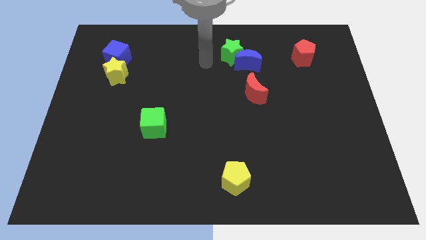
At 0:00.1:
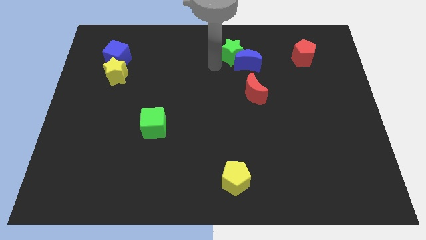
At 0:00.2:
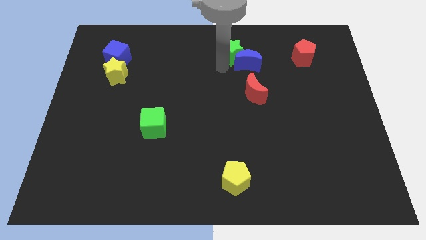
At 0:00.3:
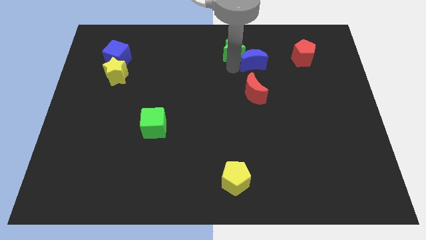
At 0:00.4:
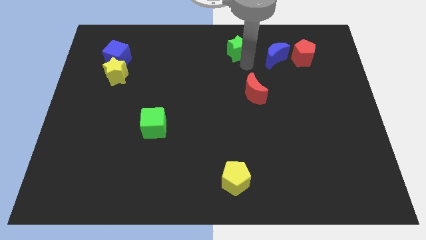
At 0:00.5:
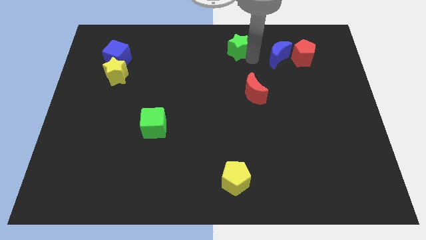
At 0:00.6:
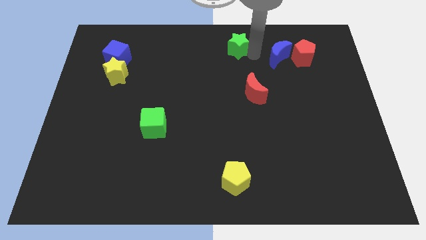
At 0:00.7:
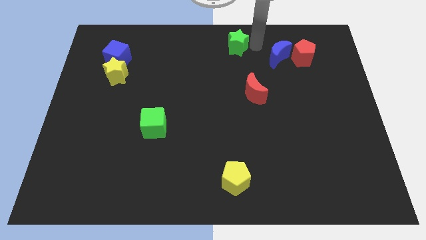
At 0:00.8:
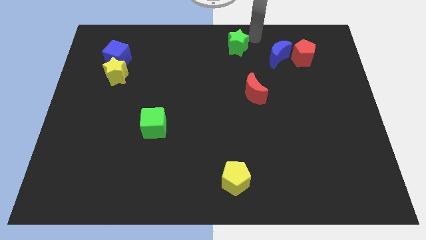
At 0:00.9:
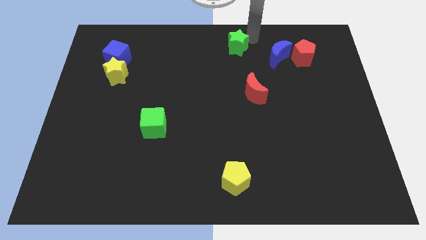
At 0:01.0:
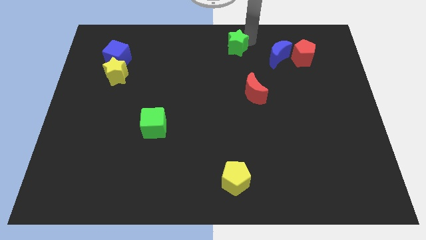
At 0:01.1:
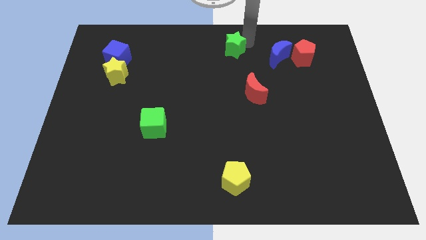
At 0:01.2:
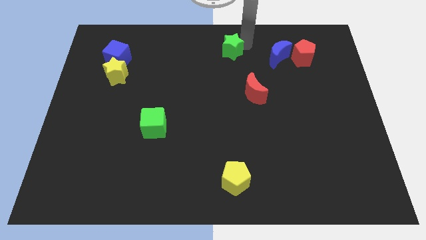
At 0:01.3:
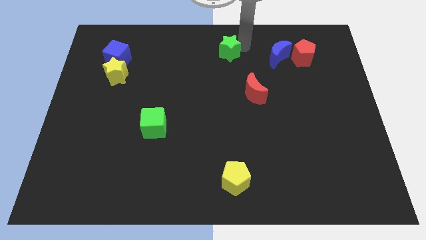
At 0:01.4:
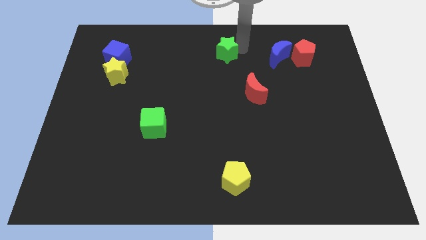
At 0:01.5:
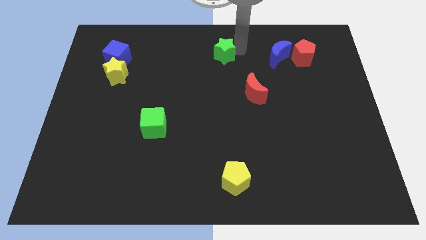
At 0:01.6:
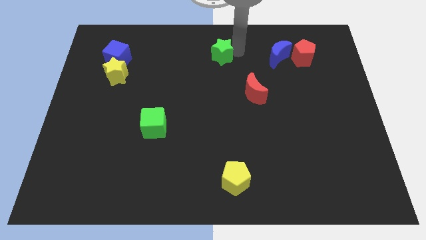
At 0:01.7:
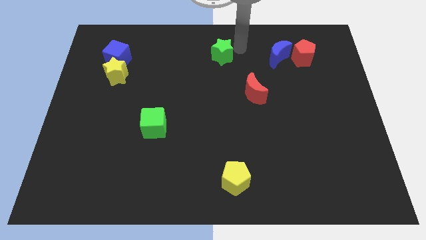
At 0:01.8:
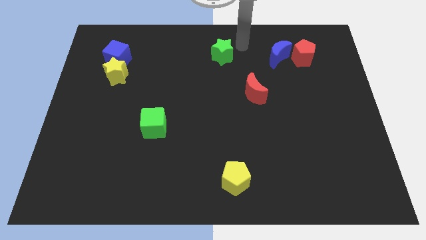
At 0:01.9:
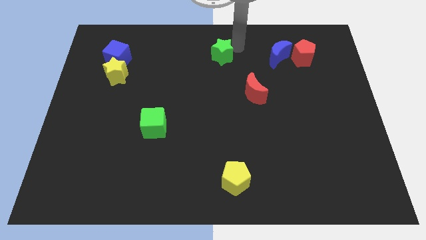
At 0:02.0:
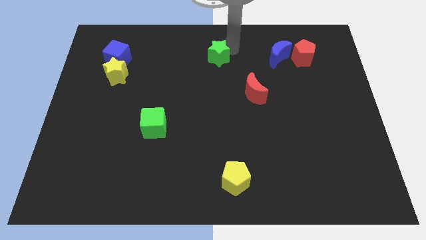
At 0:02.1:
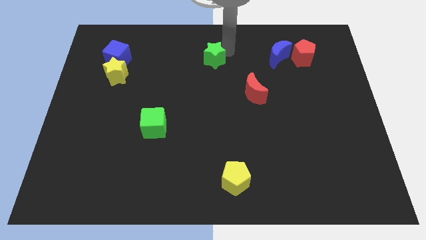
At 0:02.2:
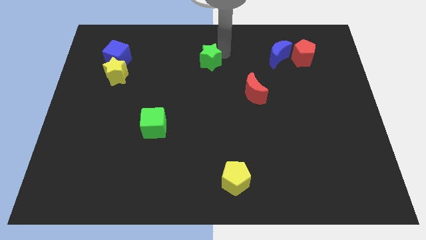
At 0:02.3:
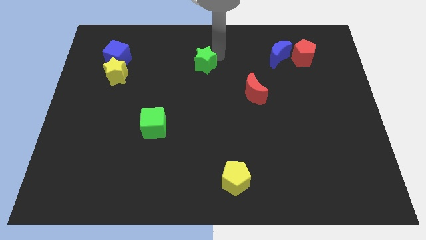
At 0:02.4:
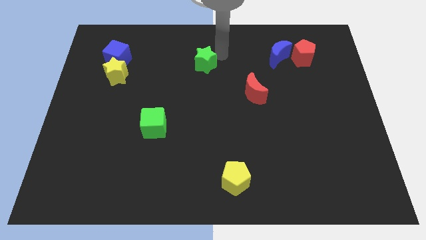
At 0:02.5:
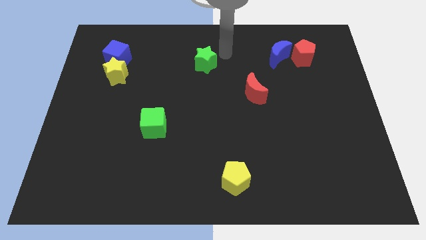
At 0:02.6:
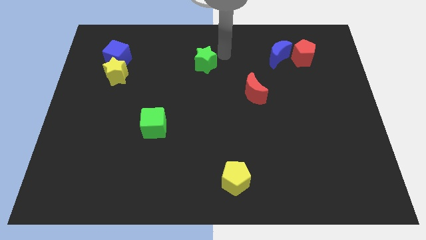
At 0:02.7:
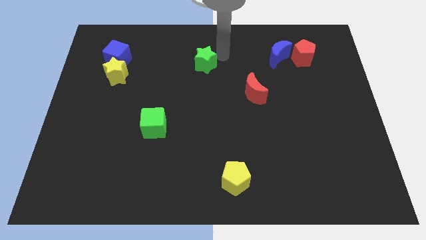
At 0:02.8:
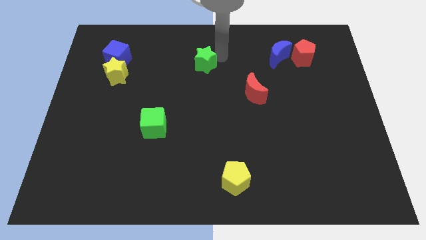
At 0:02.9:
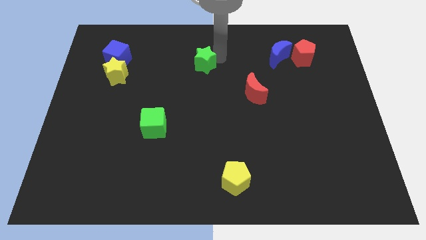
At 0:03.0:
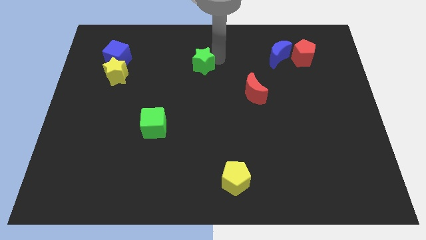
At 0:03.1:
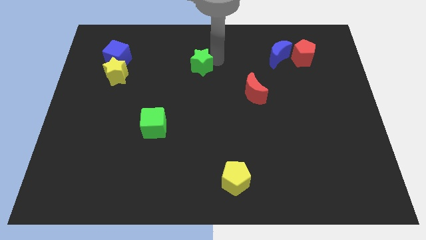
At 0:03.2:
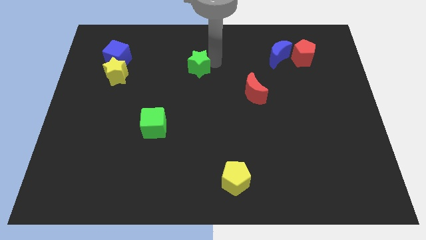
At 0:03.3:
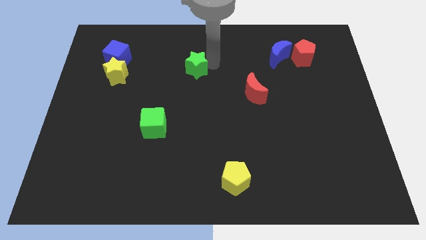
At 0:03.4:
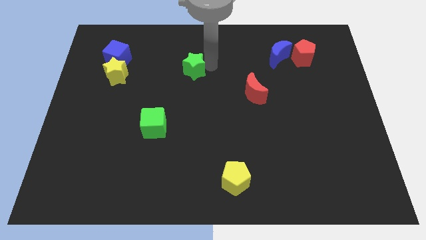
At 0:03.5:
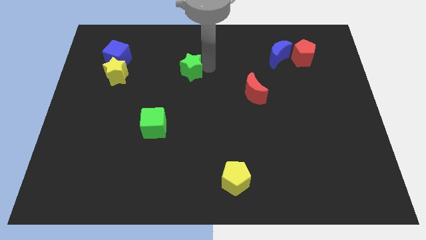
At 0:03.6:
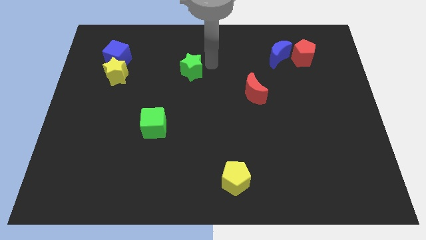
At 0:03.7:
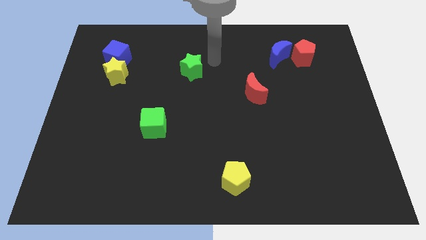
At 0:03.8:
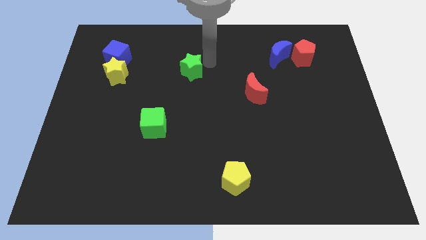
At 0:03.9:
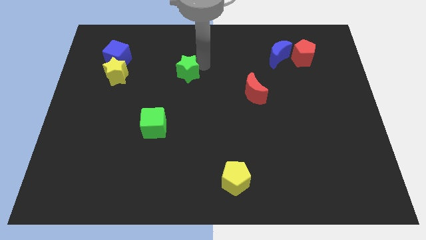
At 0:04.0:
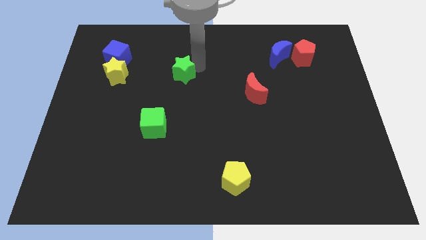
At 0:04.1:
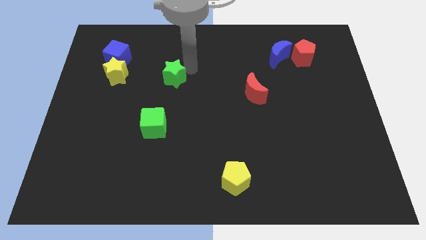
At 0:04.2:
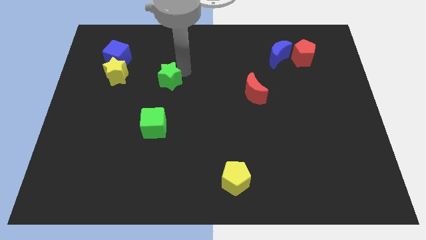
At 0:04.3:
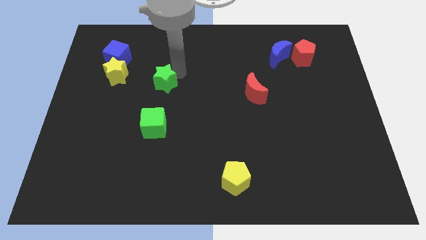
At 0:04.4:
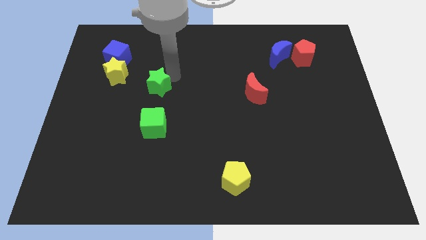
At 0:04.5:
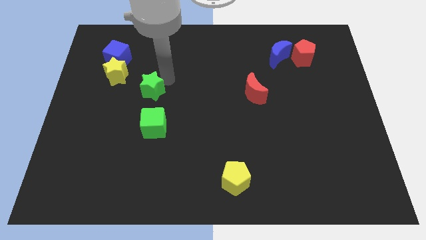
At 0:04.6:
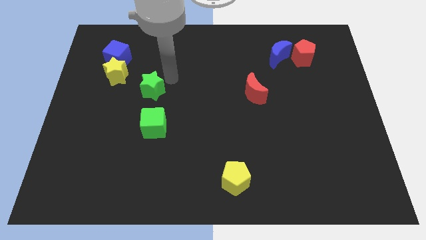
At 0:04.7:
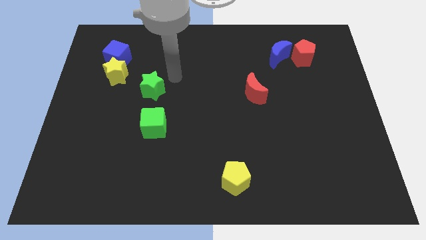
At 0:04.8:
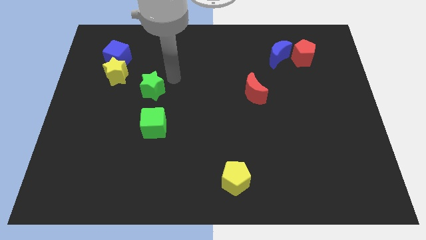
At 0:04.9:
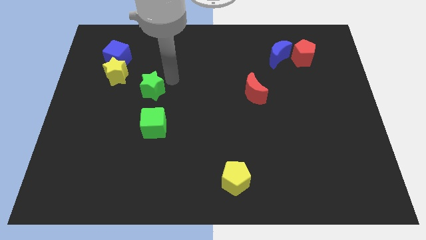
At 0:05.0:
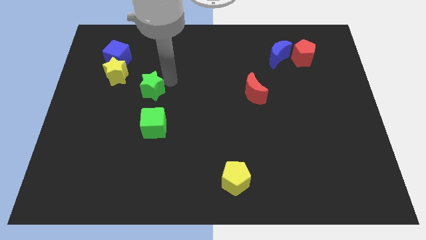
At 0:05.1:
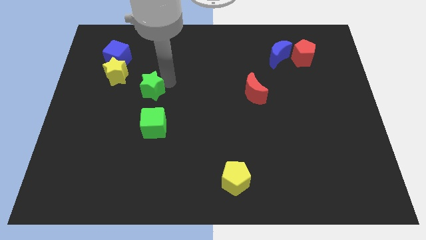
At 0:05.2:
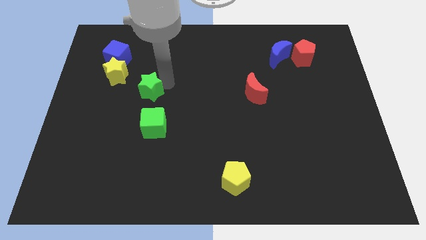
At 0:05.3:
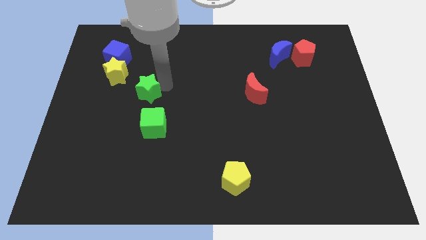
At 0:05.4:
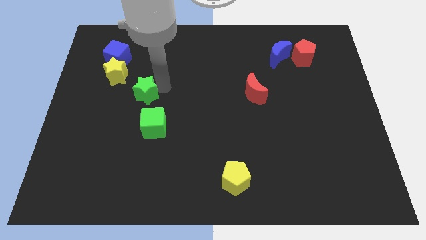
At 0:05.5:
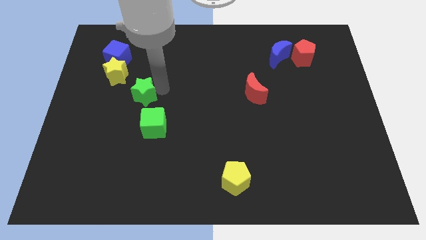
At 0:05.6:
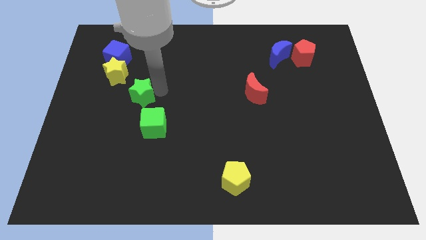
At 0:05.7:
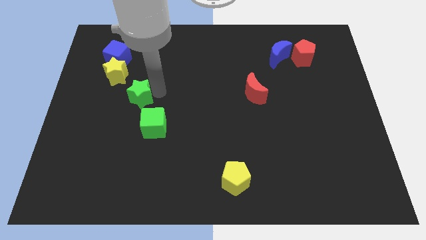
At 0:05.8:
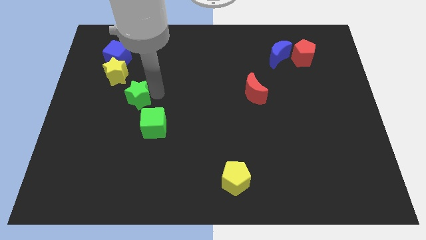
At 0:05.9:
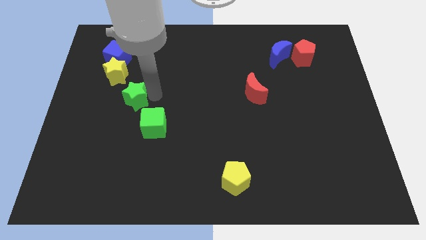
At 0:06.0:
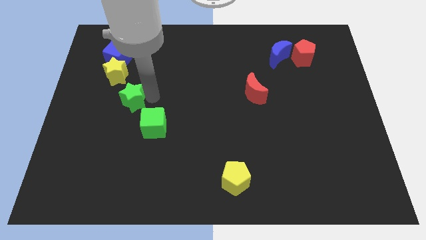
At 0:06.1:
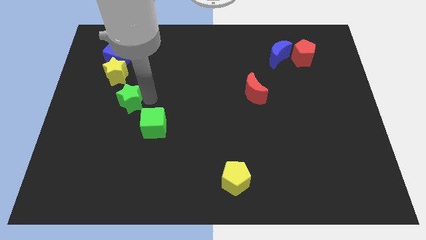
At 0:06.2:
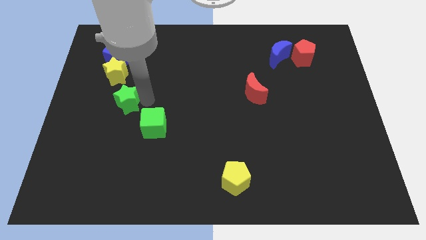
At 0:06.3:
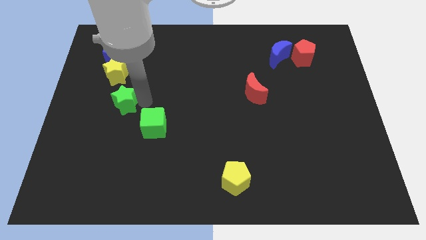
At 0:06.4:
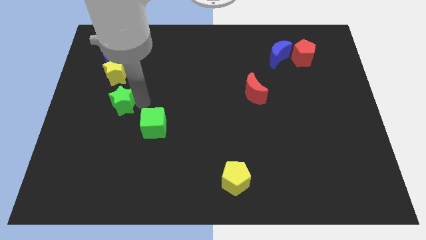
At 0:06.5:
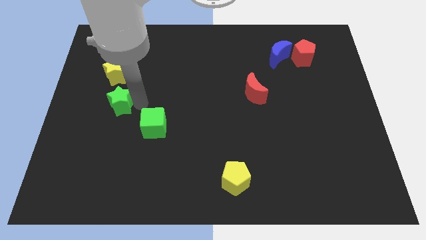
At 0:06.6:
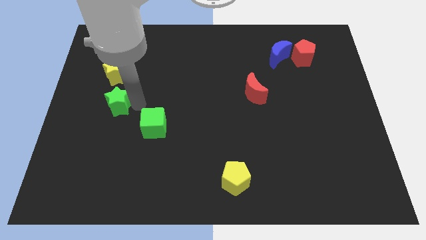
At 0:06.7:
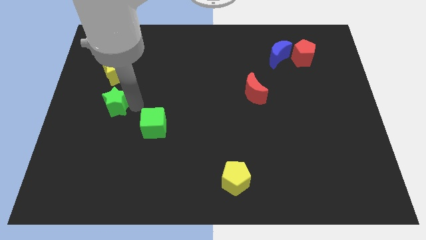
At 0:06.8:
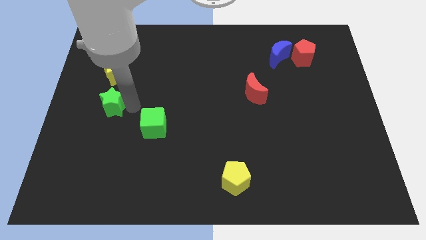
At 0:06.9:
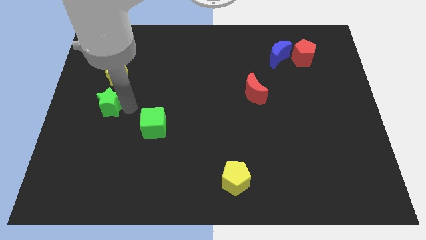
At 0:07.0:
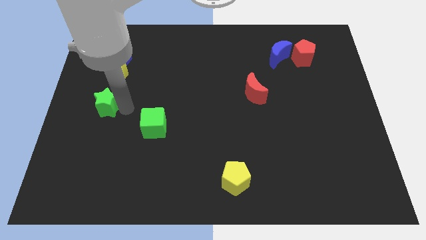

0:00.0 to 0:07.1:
move the green star to the center left
